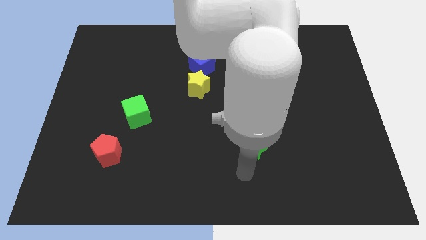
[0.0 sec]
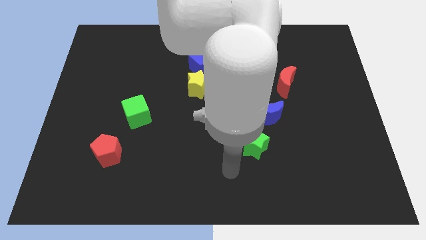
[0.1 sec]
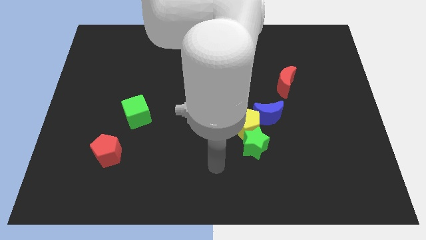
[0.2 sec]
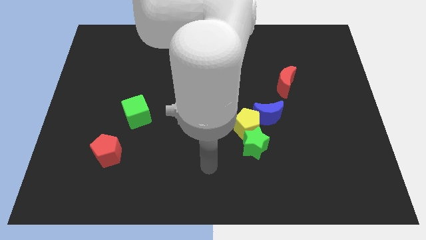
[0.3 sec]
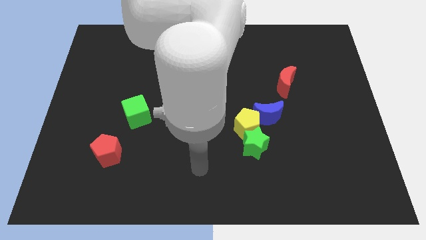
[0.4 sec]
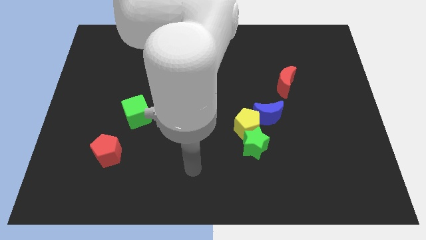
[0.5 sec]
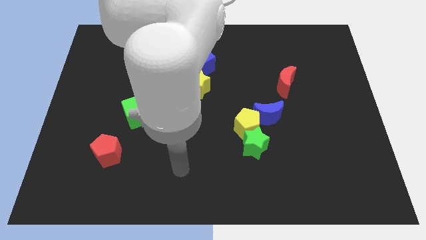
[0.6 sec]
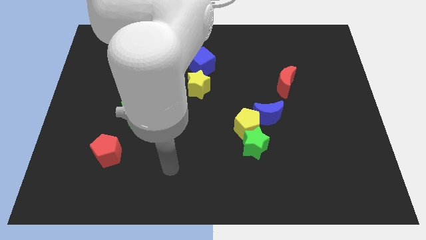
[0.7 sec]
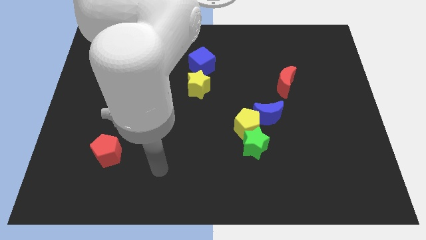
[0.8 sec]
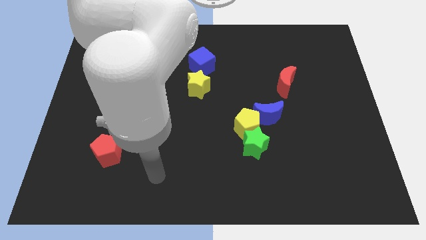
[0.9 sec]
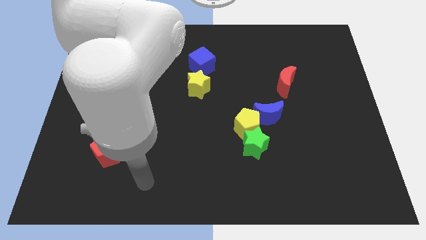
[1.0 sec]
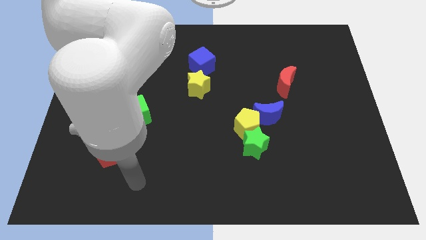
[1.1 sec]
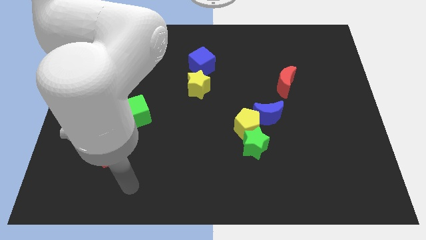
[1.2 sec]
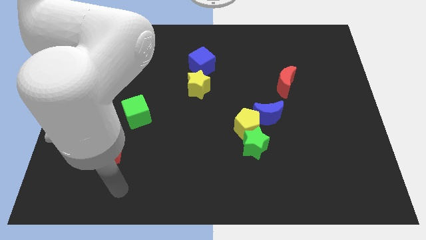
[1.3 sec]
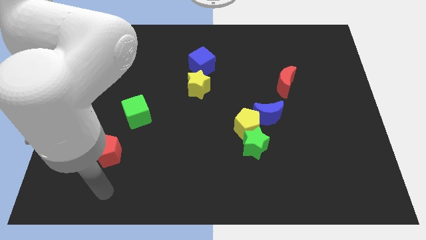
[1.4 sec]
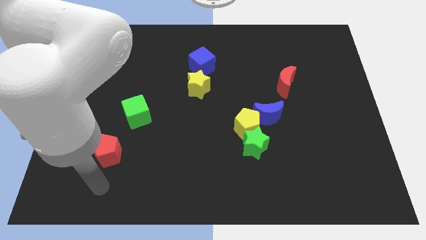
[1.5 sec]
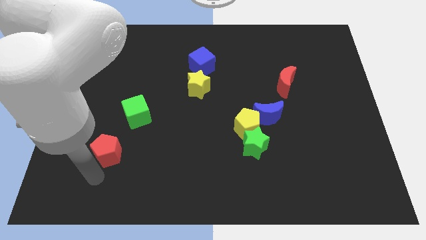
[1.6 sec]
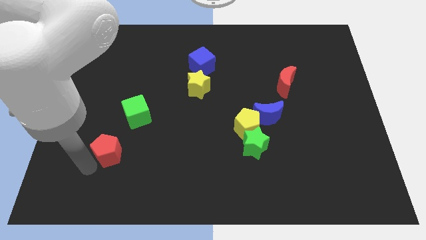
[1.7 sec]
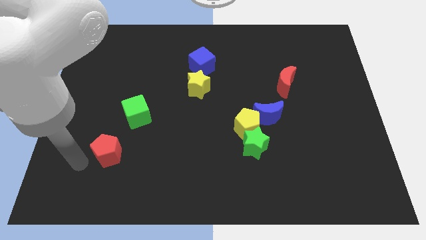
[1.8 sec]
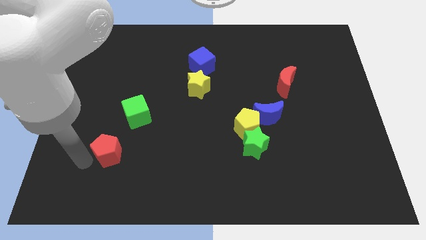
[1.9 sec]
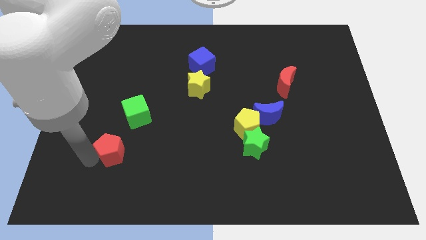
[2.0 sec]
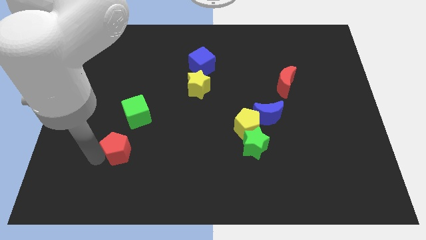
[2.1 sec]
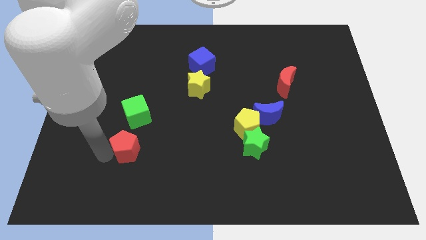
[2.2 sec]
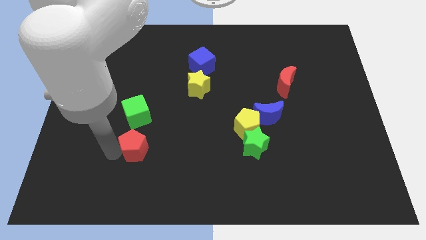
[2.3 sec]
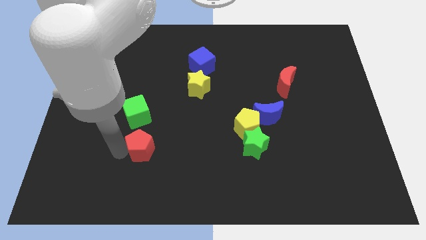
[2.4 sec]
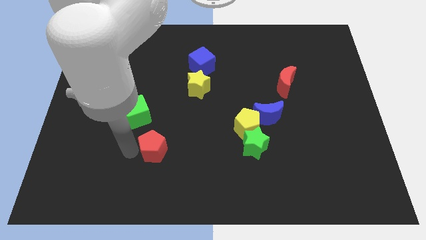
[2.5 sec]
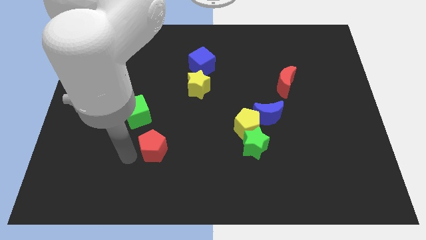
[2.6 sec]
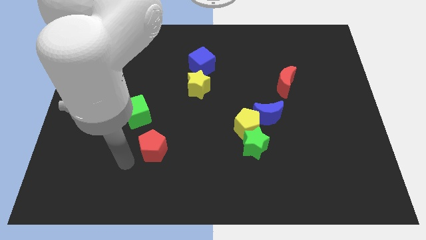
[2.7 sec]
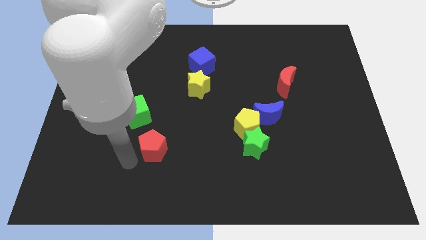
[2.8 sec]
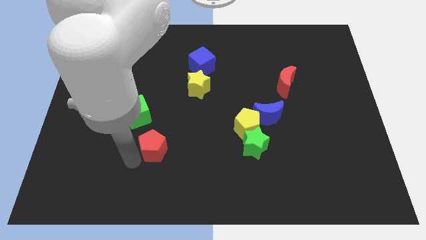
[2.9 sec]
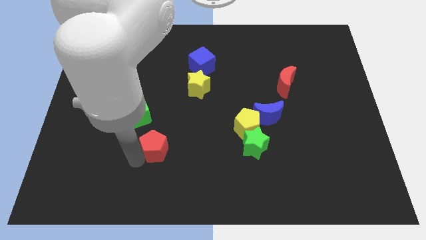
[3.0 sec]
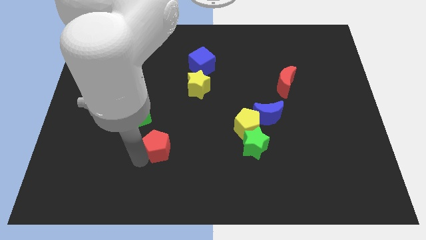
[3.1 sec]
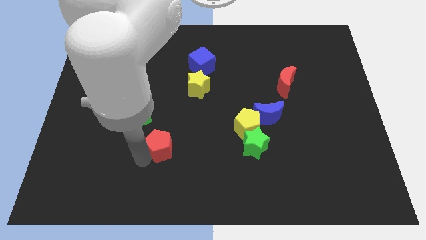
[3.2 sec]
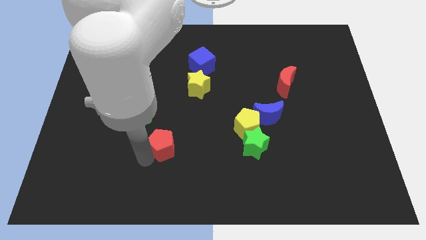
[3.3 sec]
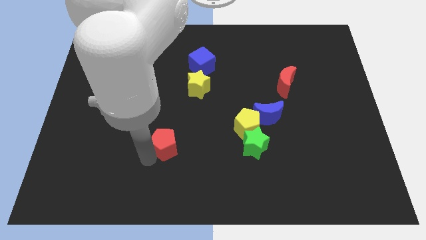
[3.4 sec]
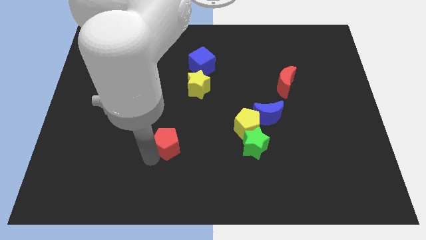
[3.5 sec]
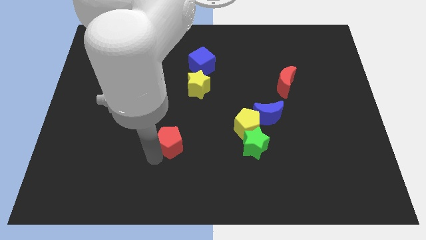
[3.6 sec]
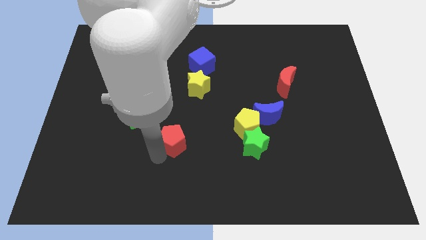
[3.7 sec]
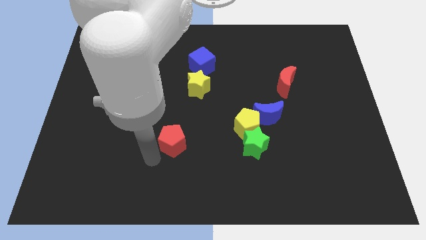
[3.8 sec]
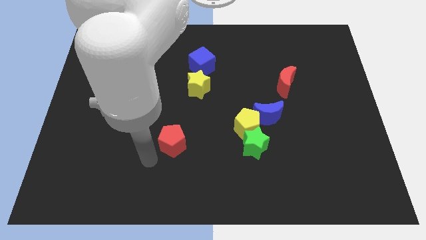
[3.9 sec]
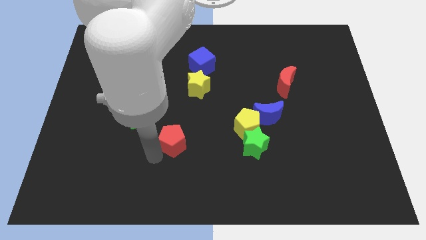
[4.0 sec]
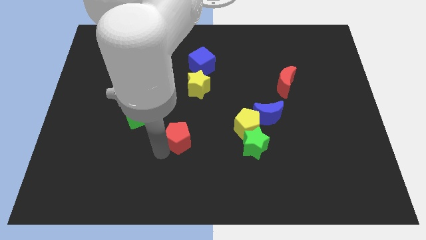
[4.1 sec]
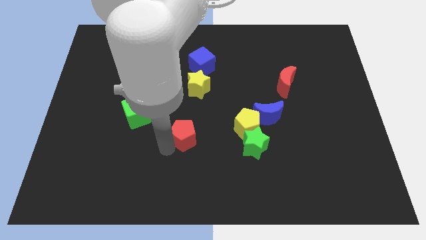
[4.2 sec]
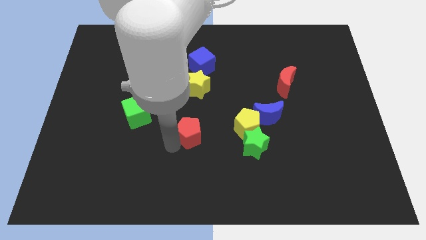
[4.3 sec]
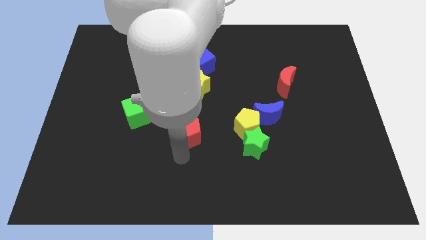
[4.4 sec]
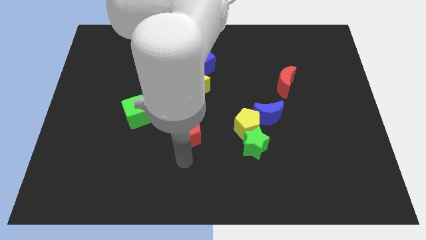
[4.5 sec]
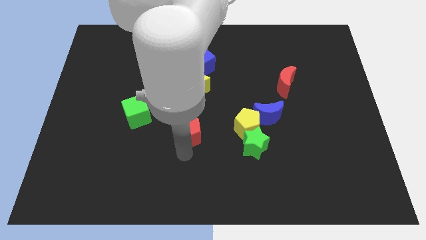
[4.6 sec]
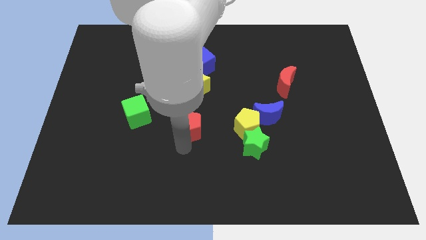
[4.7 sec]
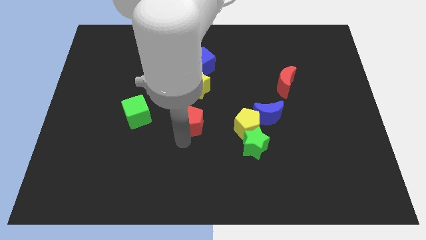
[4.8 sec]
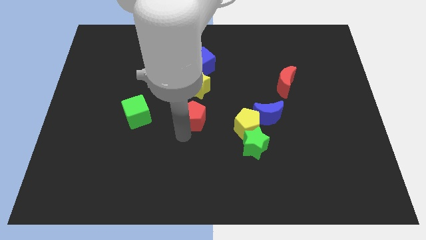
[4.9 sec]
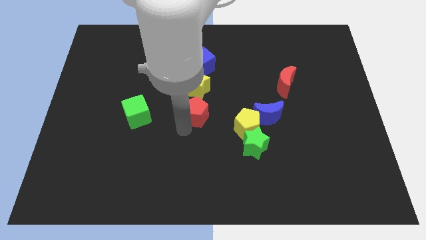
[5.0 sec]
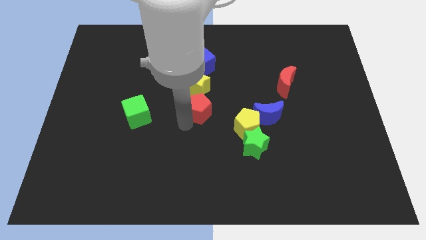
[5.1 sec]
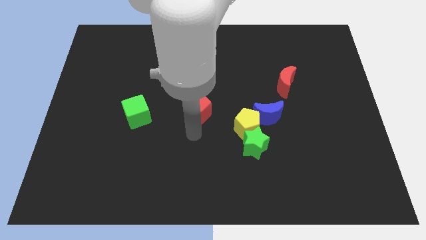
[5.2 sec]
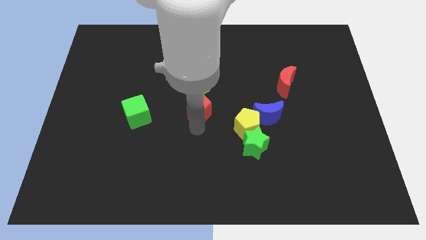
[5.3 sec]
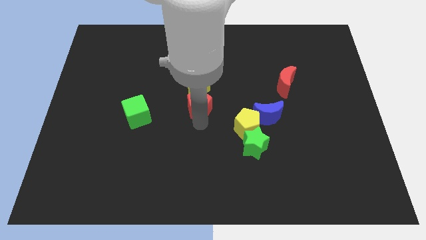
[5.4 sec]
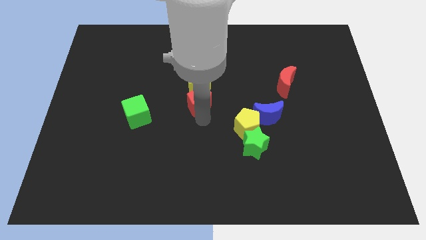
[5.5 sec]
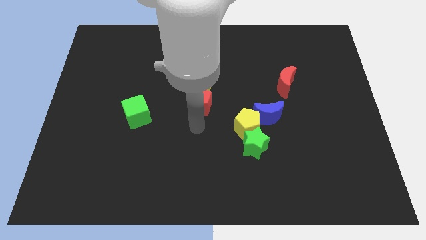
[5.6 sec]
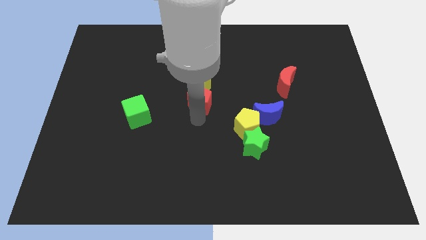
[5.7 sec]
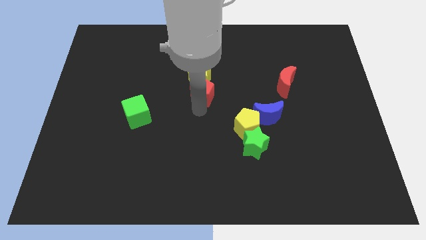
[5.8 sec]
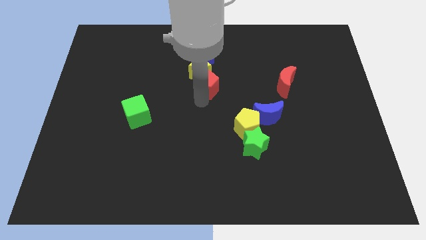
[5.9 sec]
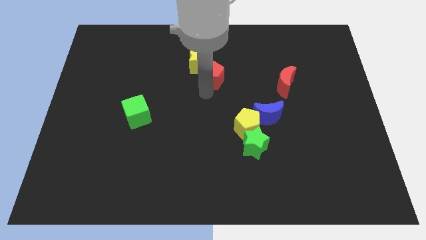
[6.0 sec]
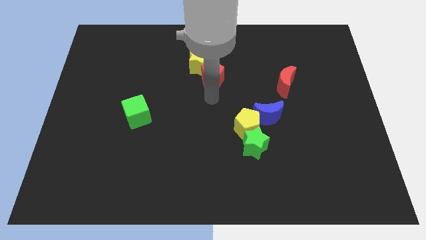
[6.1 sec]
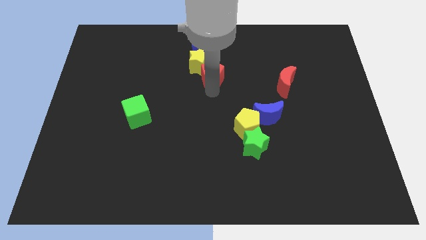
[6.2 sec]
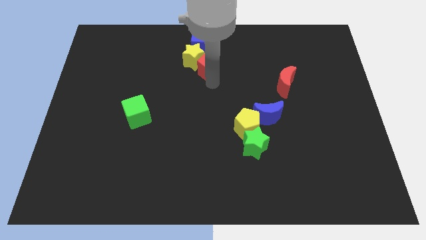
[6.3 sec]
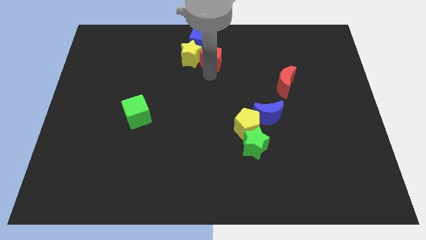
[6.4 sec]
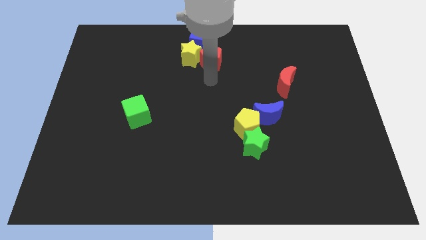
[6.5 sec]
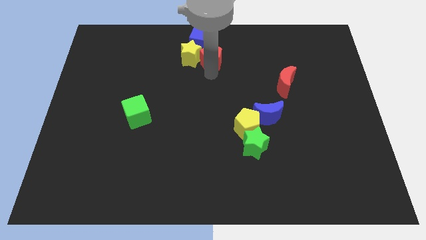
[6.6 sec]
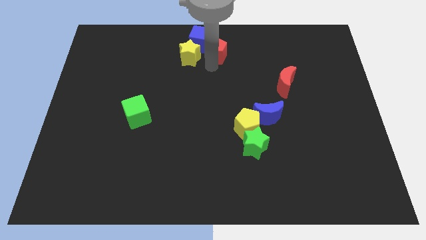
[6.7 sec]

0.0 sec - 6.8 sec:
push the red pentagon to the towards your base
